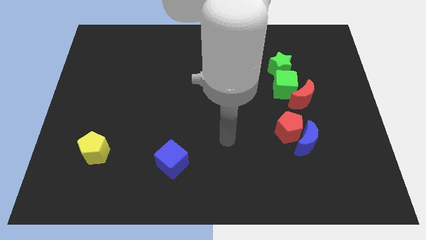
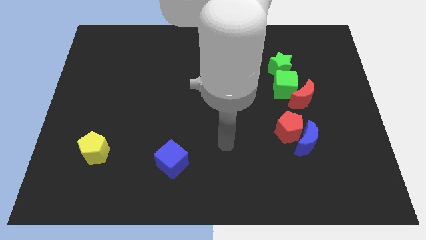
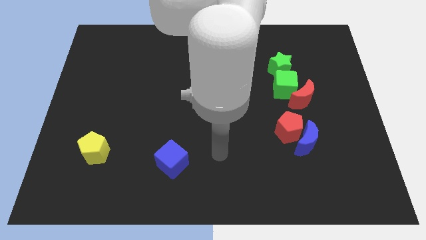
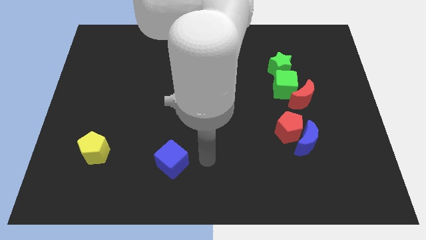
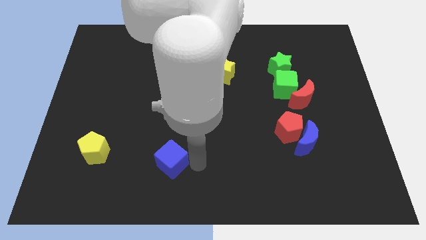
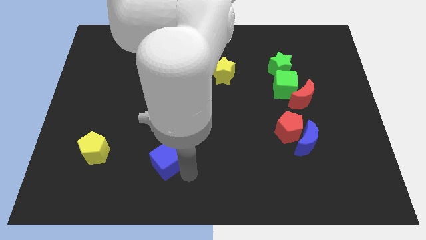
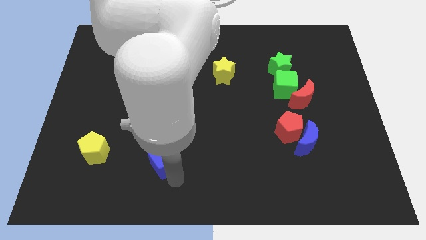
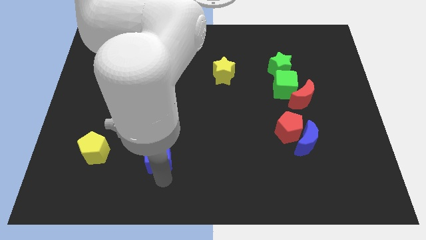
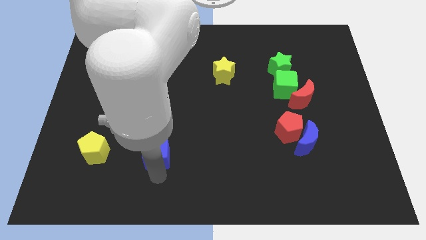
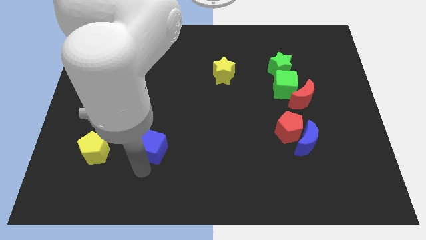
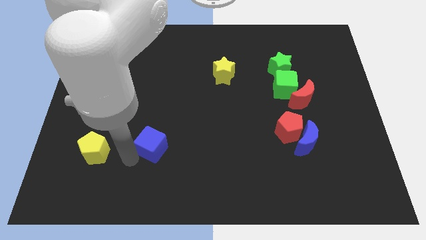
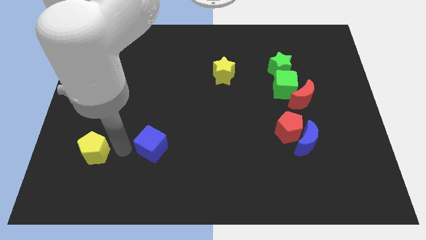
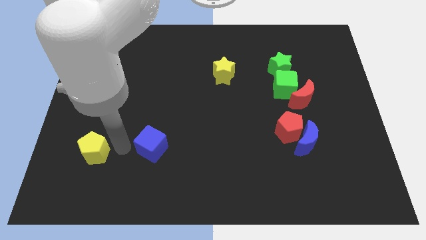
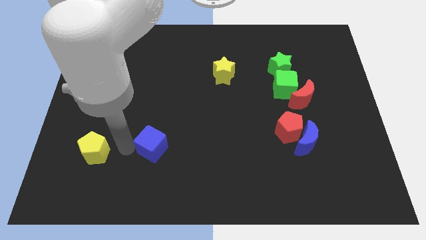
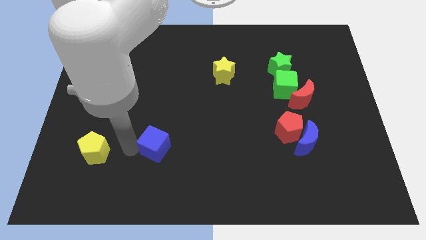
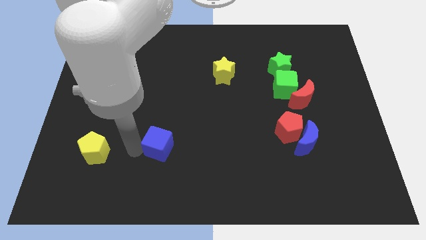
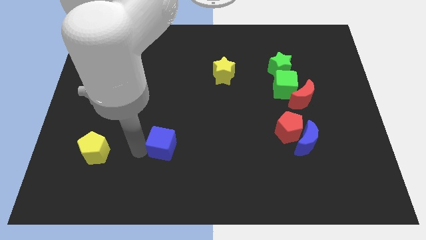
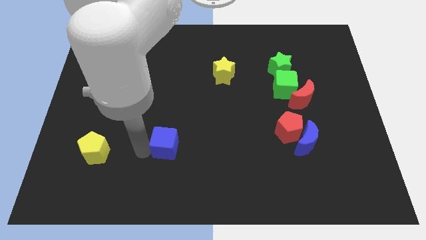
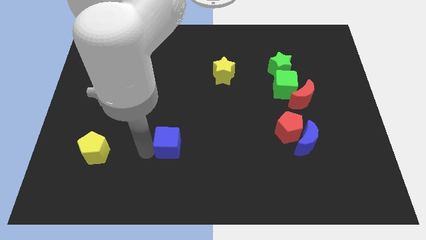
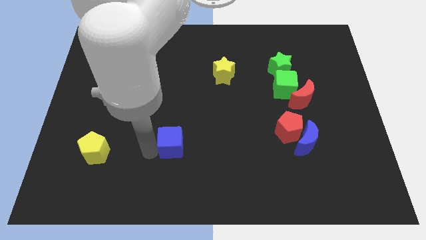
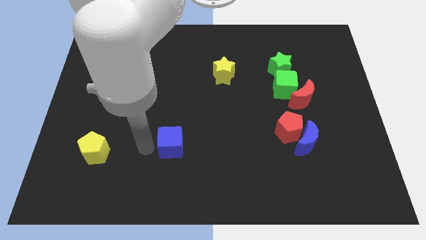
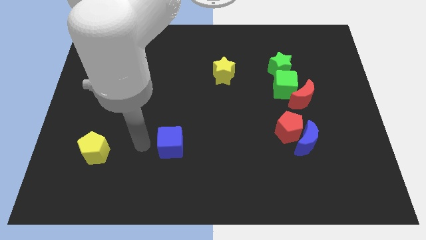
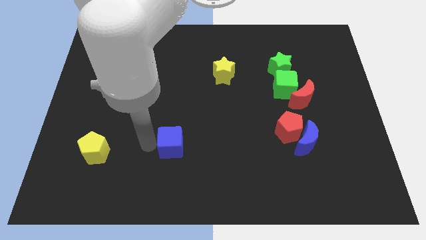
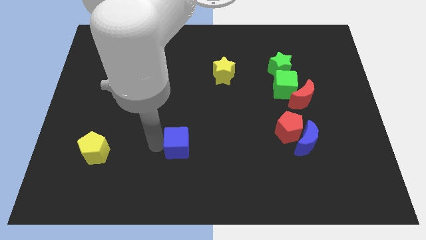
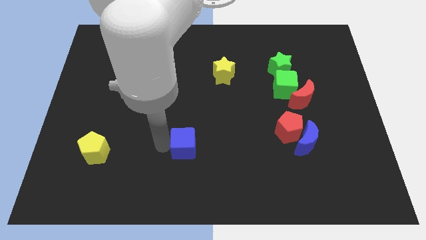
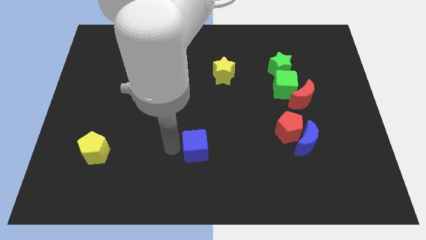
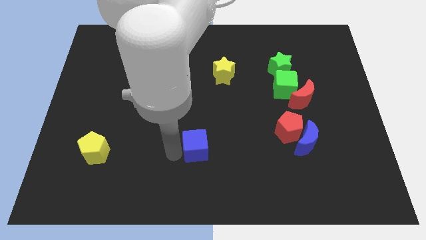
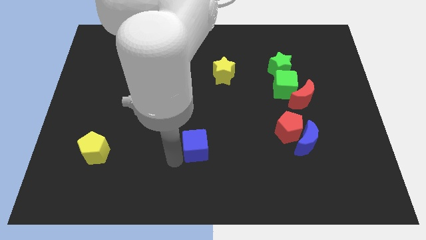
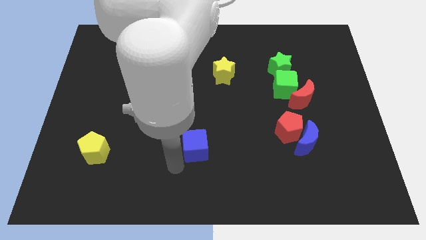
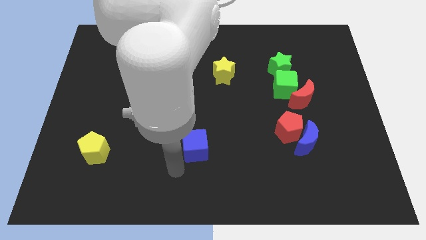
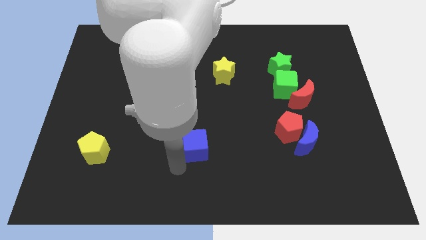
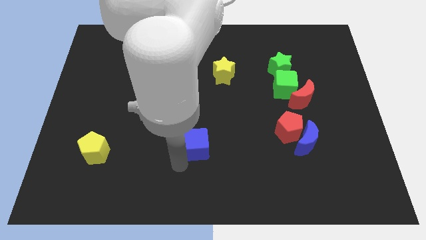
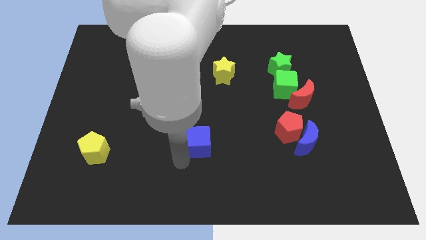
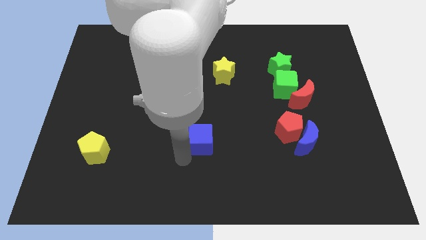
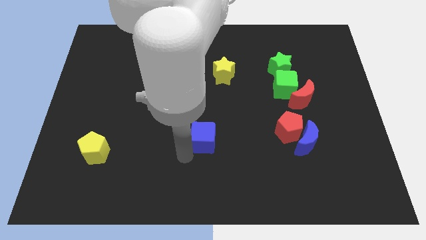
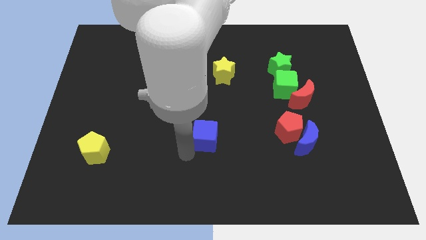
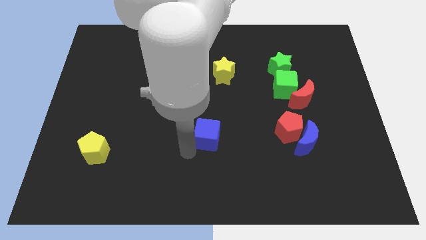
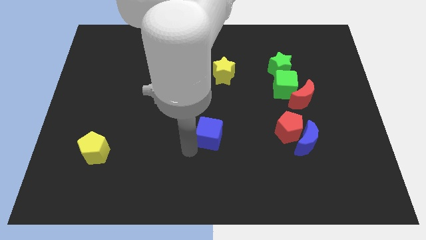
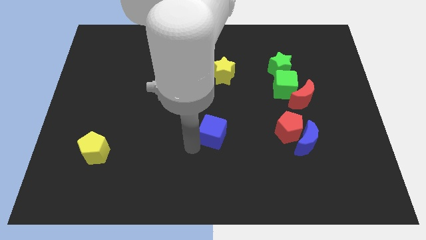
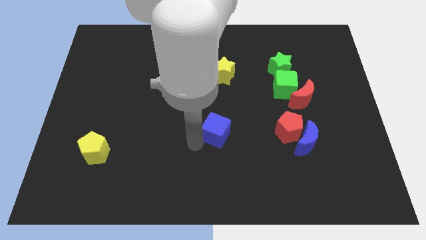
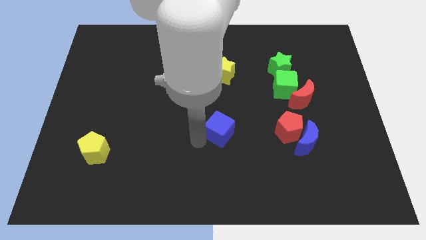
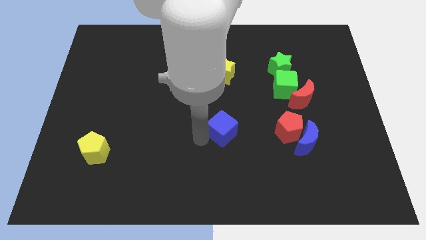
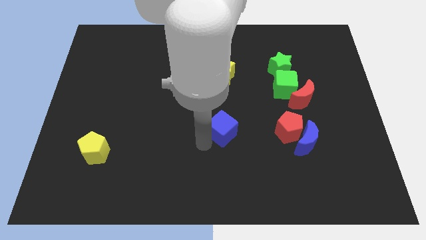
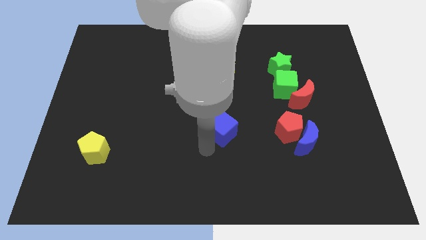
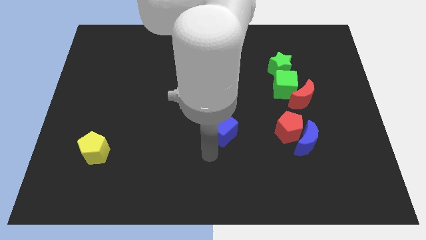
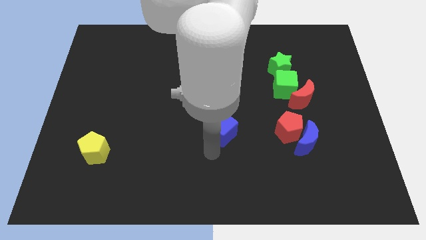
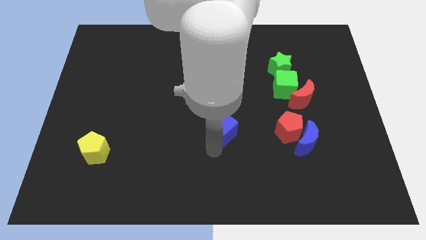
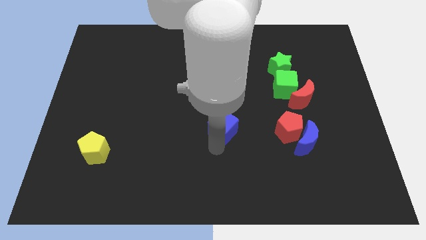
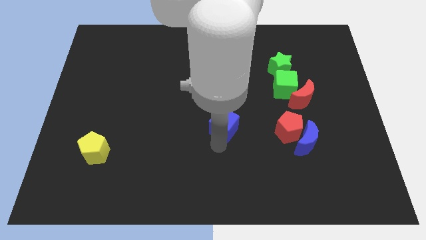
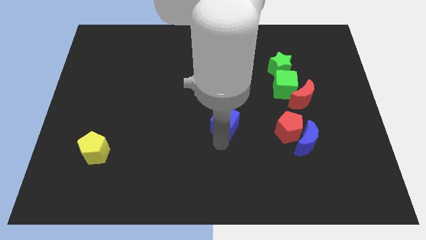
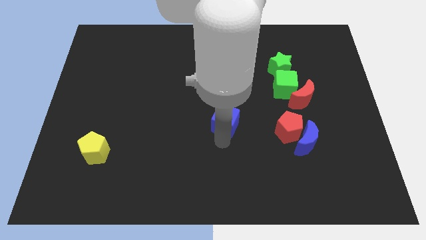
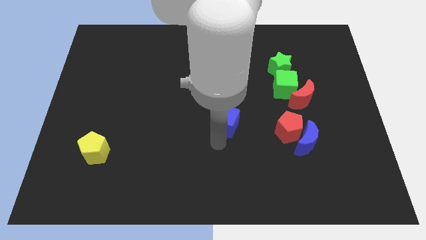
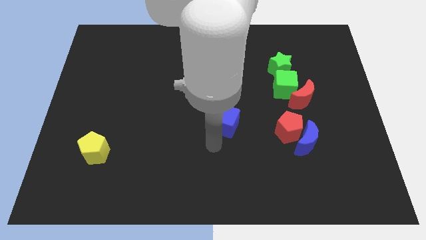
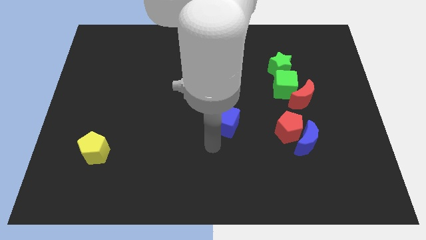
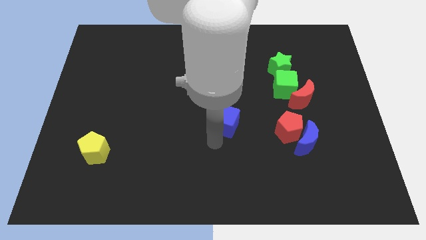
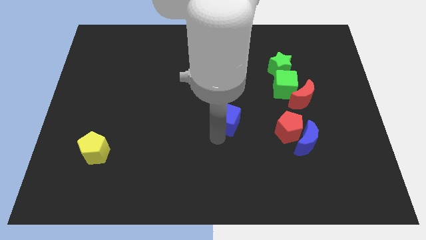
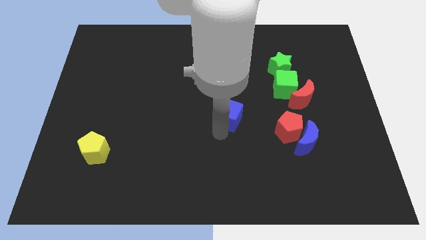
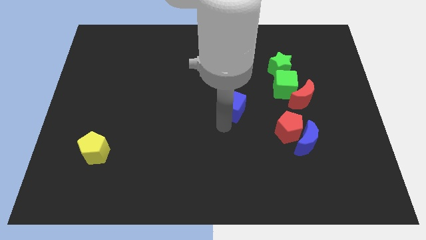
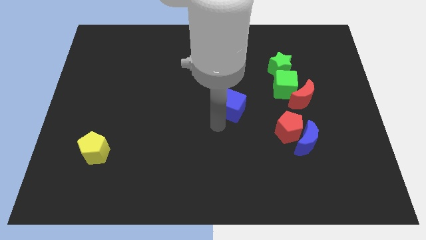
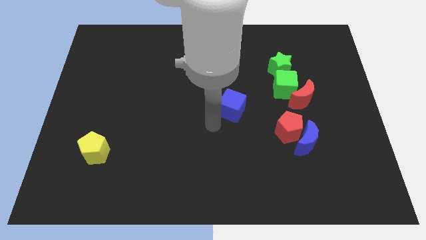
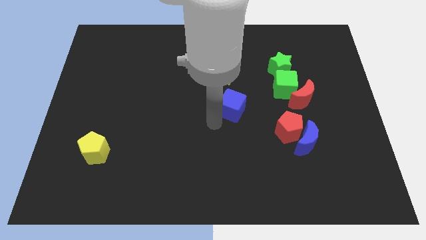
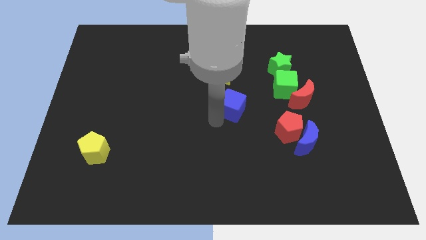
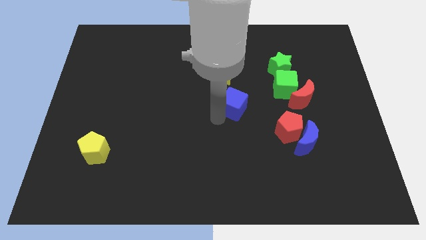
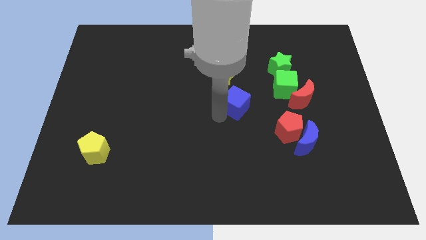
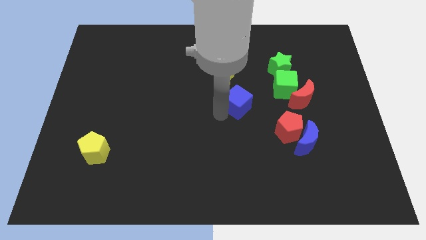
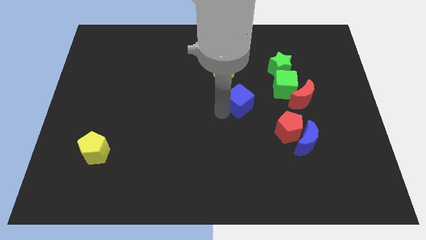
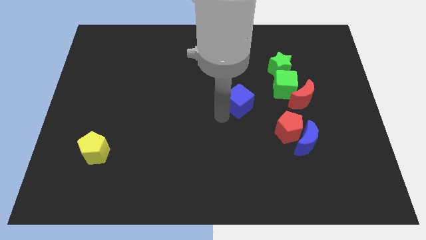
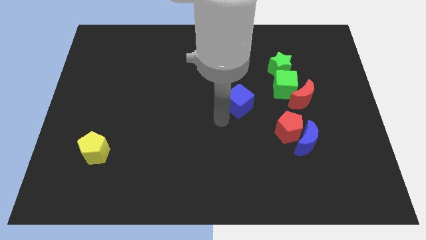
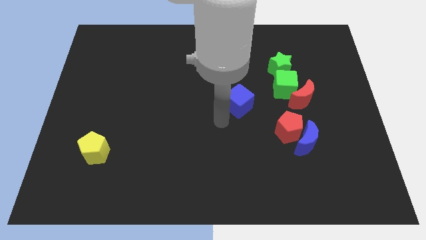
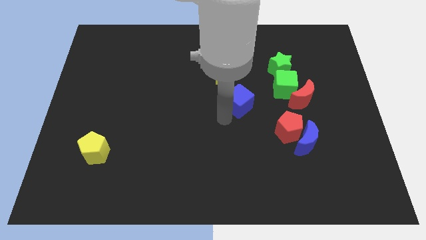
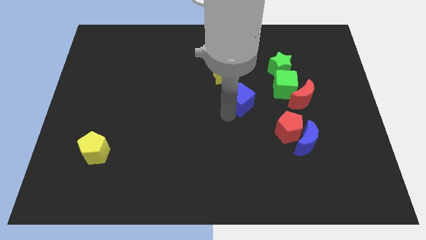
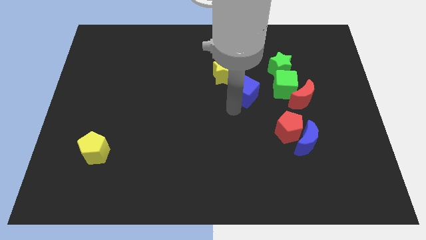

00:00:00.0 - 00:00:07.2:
push the blue cube diagonally down and to the left of the green star
